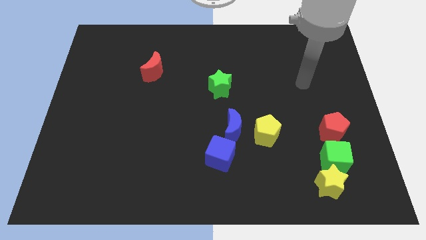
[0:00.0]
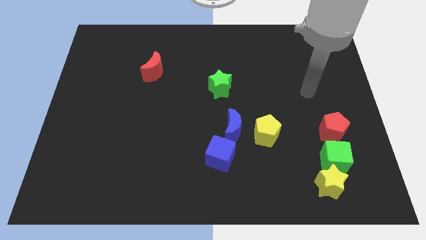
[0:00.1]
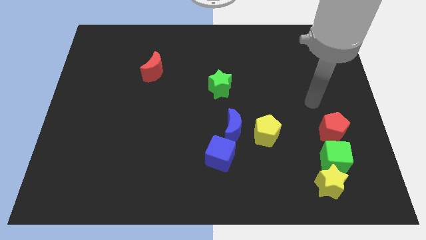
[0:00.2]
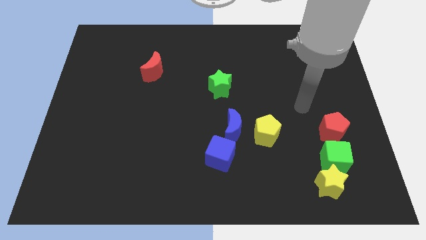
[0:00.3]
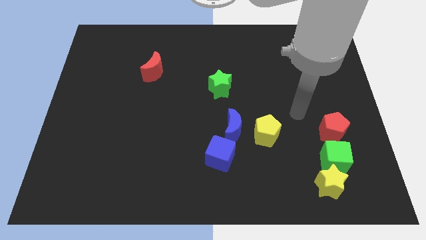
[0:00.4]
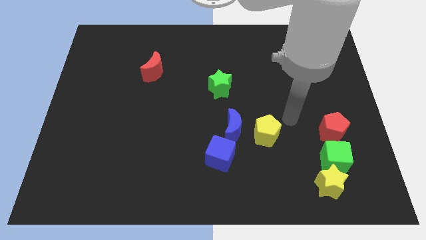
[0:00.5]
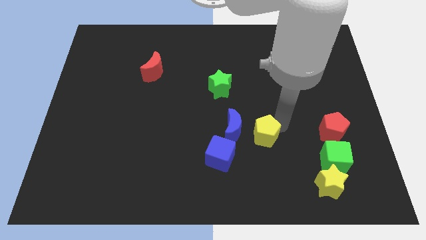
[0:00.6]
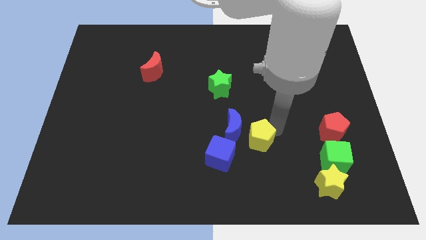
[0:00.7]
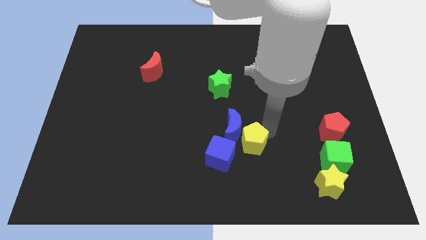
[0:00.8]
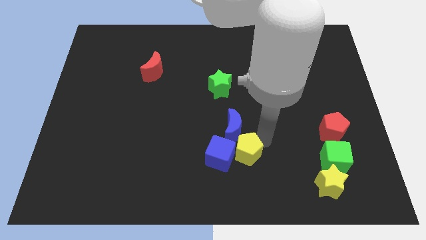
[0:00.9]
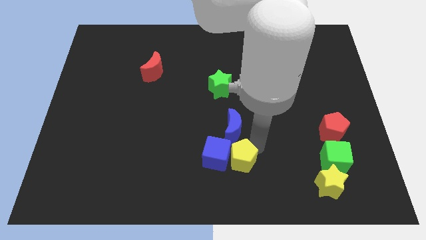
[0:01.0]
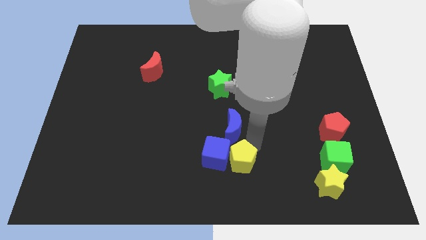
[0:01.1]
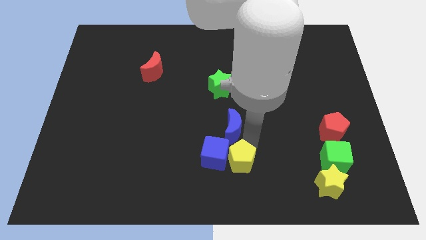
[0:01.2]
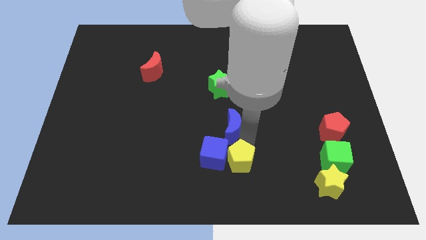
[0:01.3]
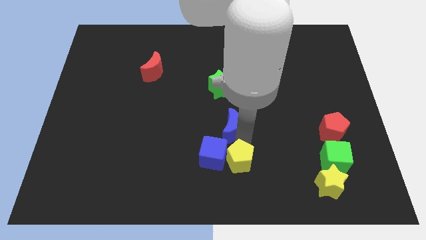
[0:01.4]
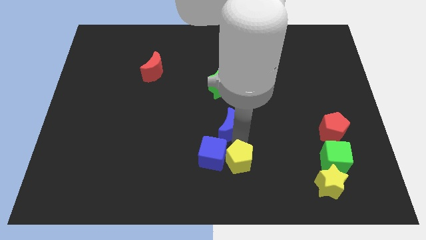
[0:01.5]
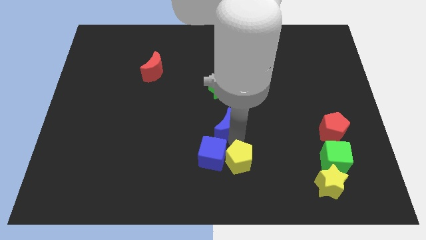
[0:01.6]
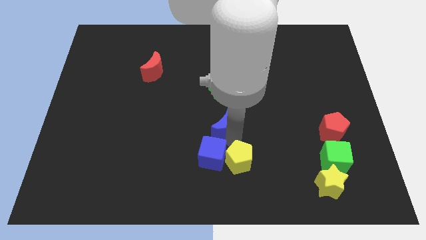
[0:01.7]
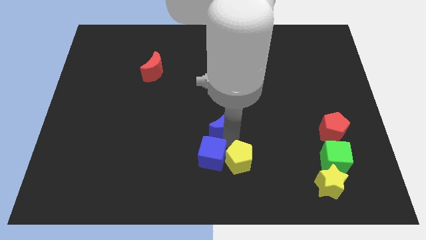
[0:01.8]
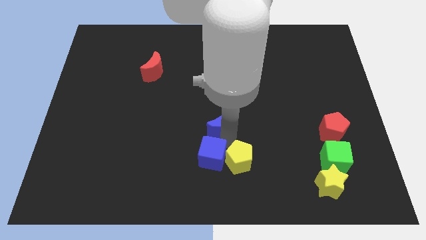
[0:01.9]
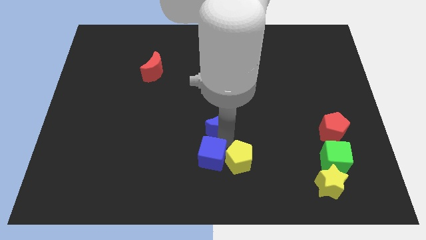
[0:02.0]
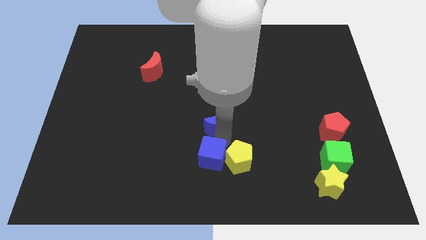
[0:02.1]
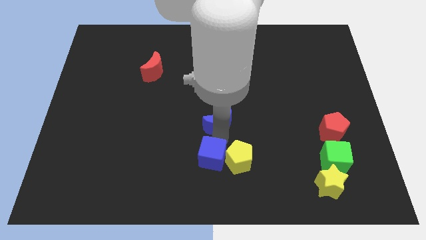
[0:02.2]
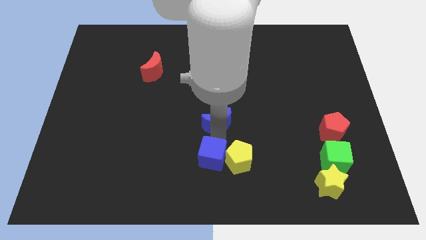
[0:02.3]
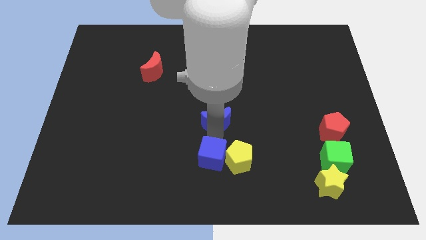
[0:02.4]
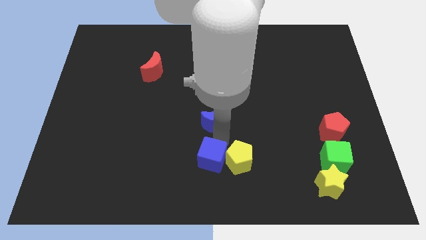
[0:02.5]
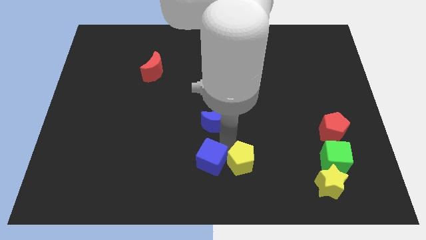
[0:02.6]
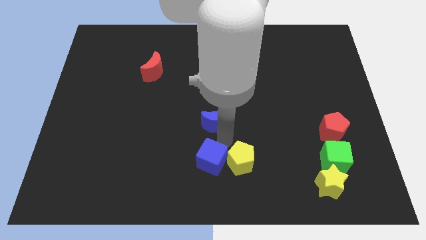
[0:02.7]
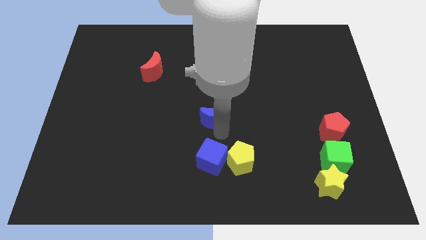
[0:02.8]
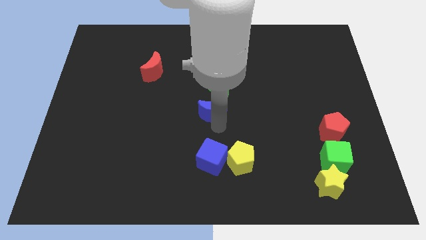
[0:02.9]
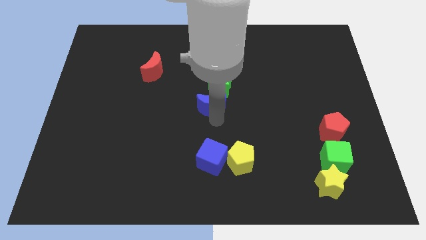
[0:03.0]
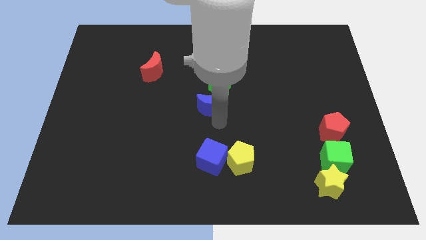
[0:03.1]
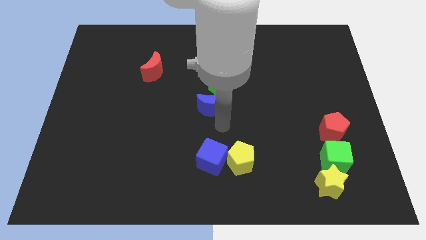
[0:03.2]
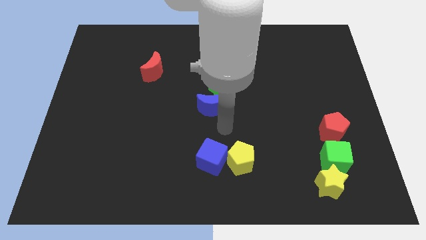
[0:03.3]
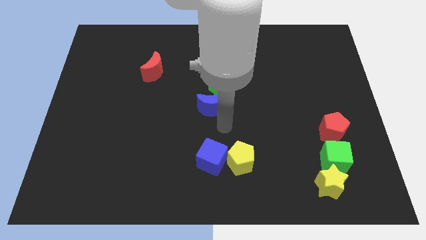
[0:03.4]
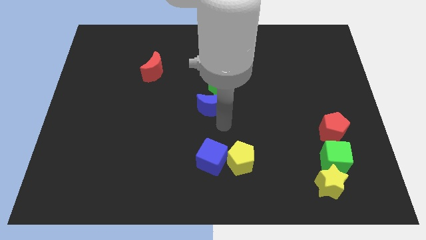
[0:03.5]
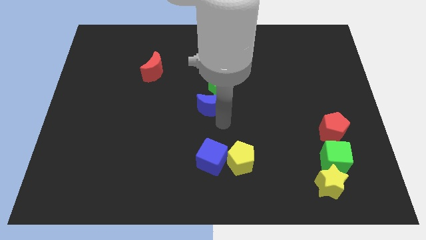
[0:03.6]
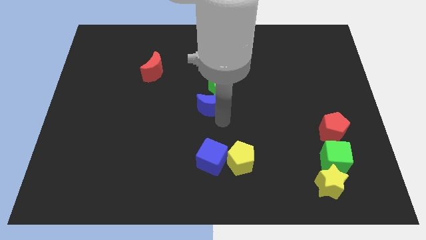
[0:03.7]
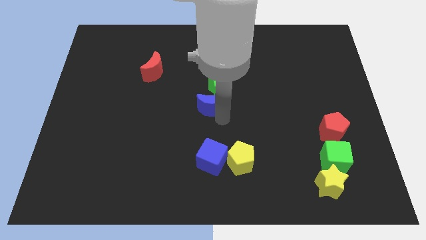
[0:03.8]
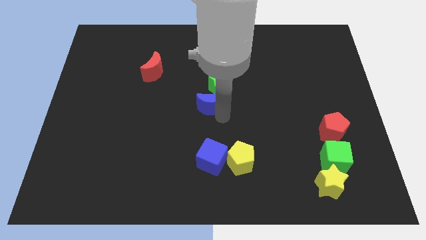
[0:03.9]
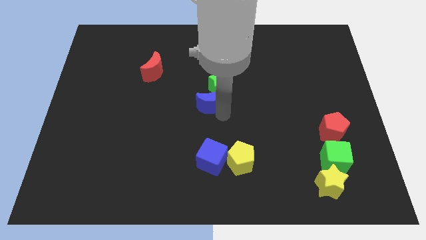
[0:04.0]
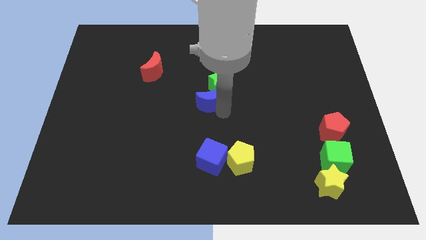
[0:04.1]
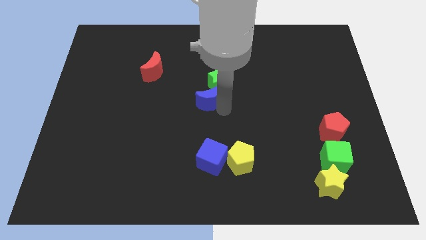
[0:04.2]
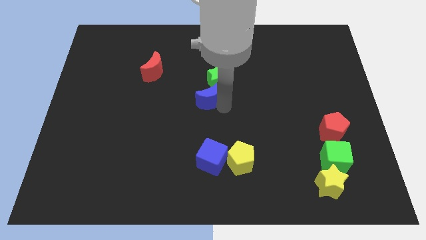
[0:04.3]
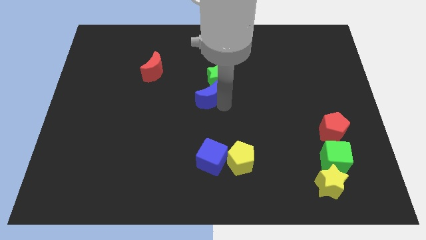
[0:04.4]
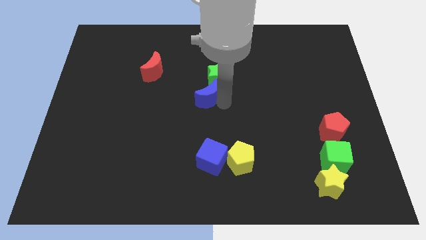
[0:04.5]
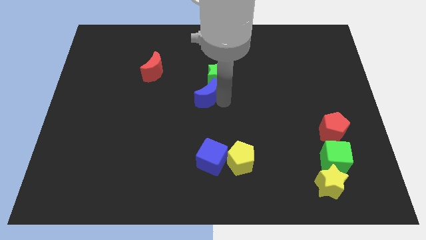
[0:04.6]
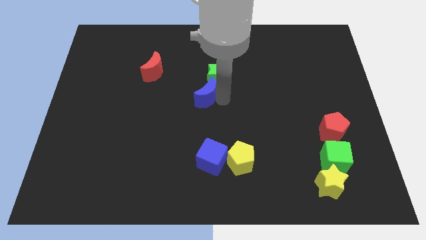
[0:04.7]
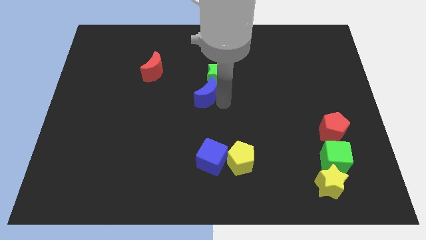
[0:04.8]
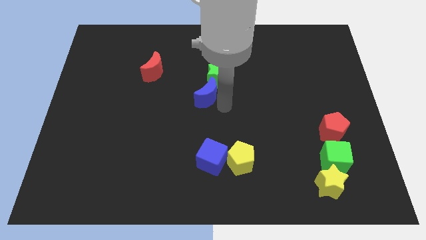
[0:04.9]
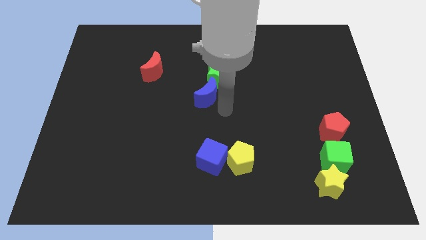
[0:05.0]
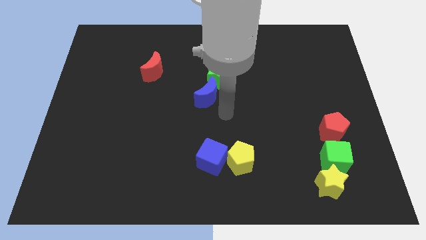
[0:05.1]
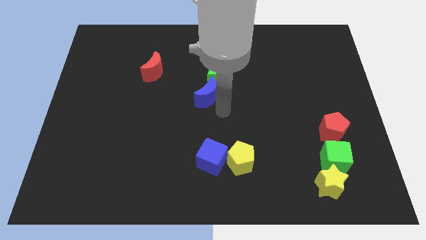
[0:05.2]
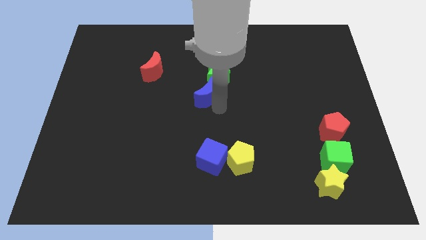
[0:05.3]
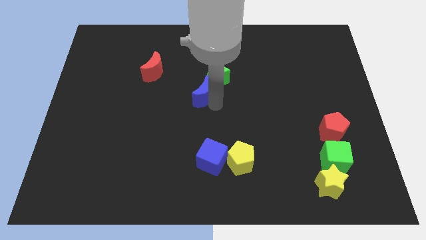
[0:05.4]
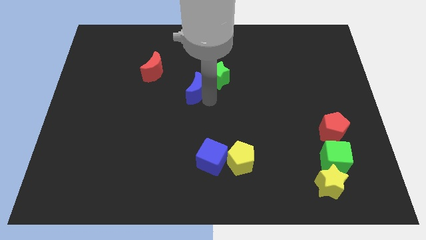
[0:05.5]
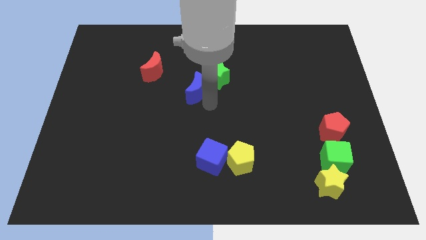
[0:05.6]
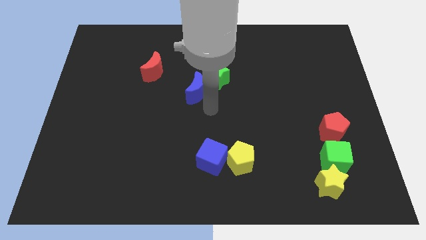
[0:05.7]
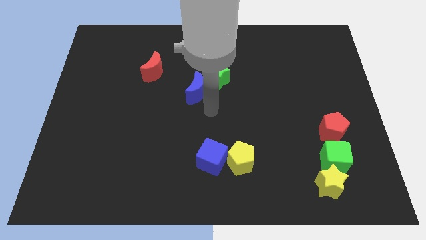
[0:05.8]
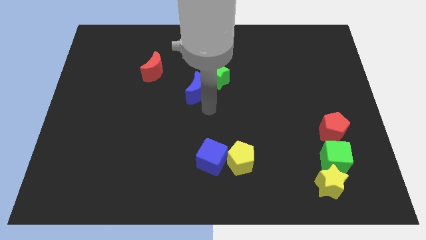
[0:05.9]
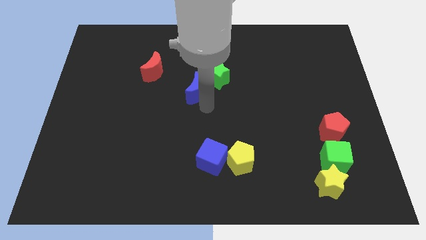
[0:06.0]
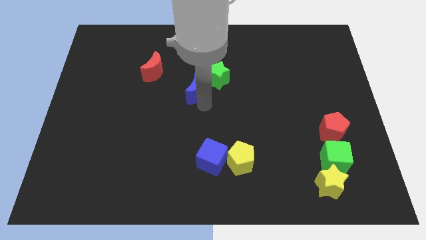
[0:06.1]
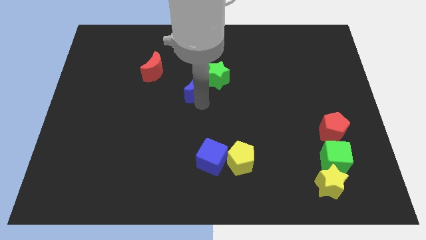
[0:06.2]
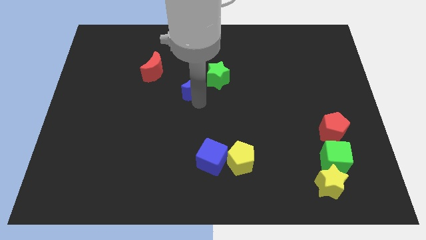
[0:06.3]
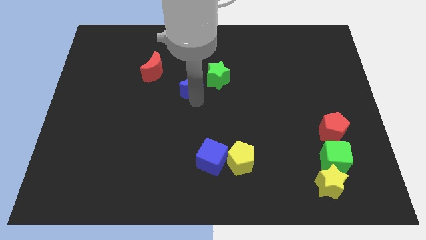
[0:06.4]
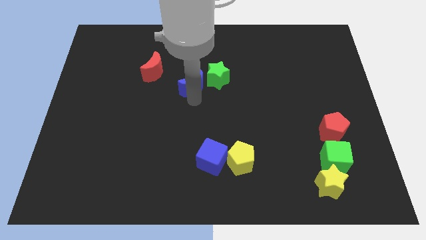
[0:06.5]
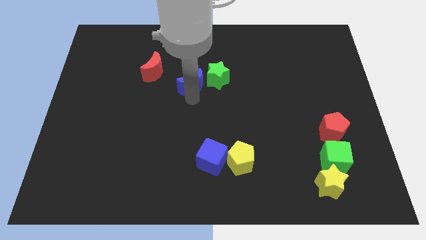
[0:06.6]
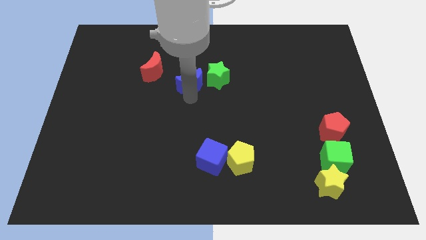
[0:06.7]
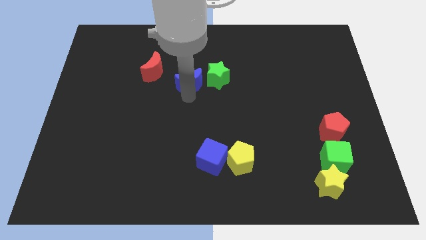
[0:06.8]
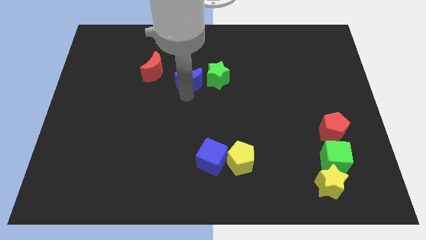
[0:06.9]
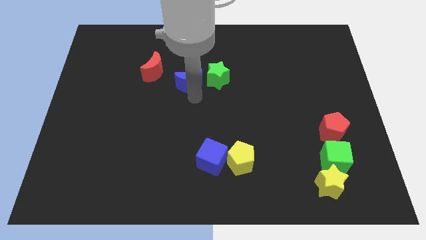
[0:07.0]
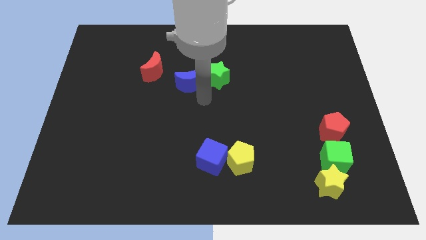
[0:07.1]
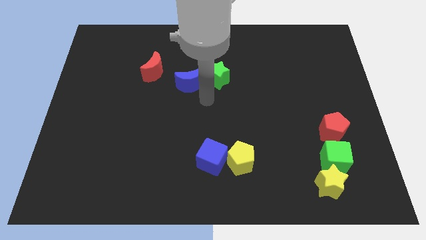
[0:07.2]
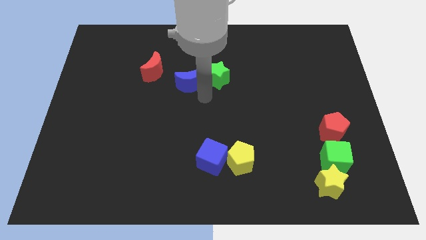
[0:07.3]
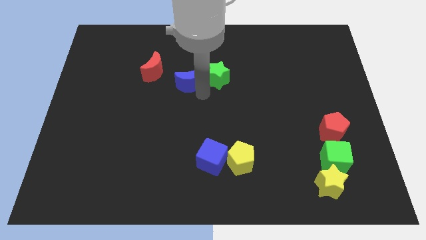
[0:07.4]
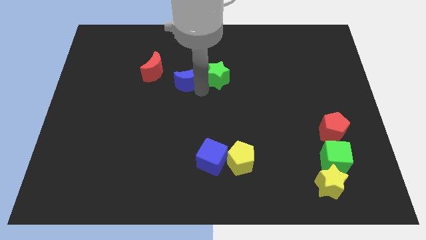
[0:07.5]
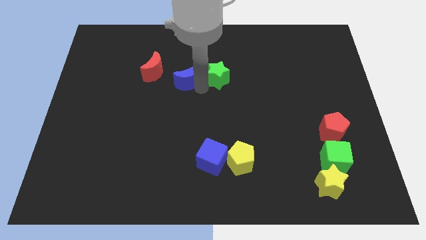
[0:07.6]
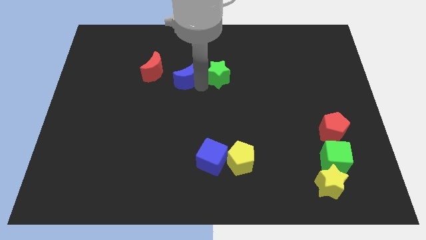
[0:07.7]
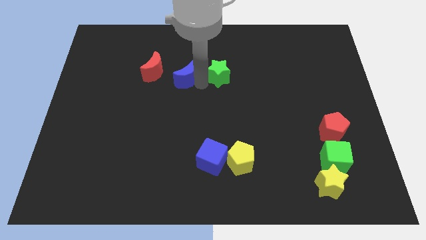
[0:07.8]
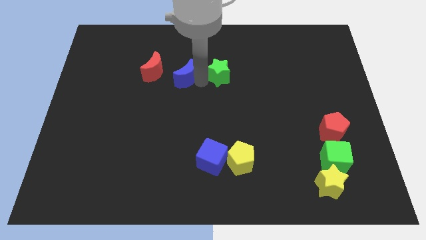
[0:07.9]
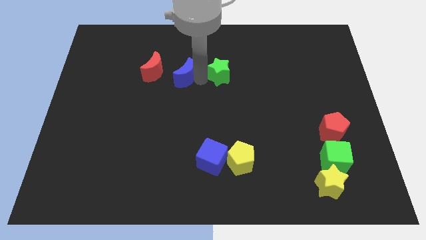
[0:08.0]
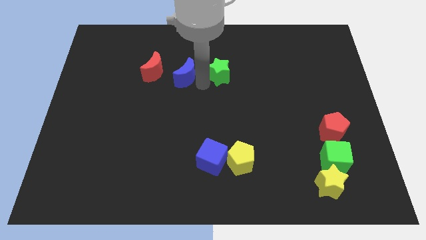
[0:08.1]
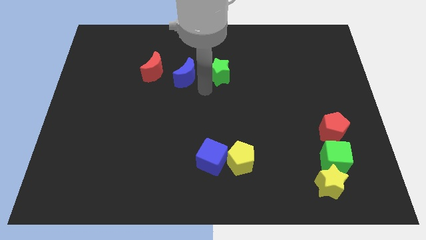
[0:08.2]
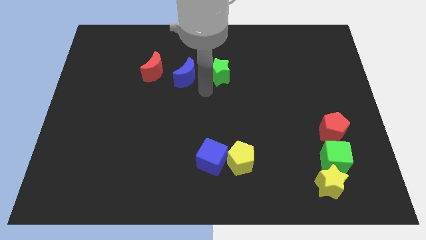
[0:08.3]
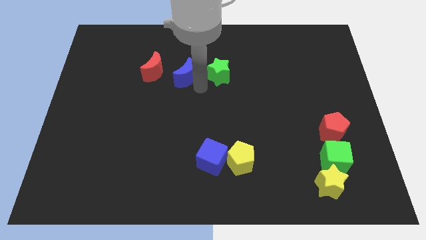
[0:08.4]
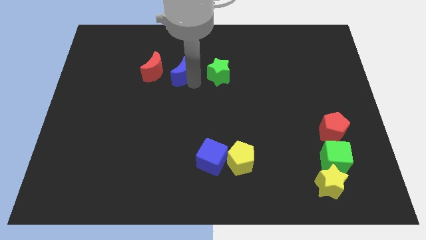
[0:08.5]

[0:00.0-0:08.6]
slide the blue moon up and to the left diagonally
